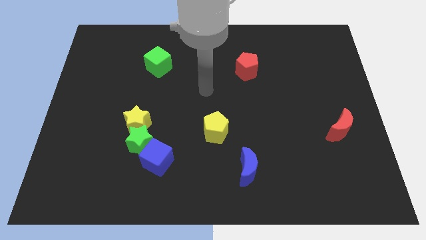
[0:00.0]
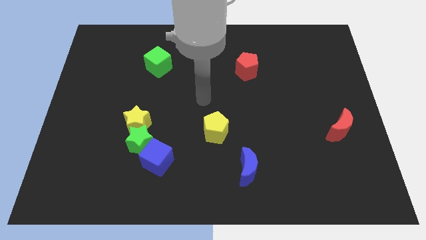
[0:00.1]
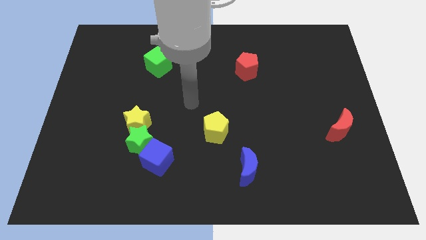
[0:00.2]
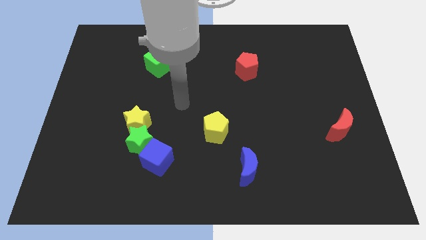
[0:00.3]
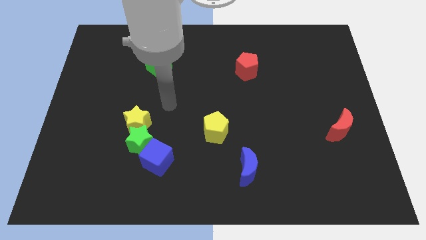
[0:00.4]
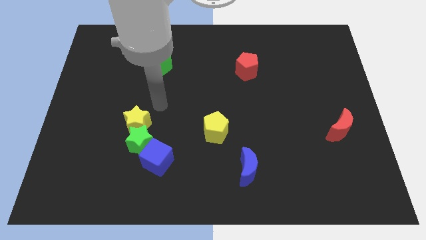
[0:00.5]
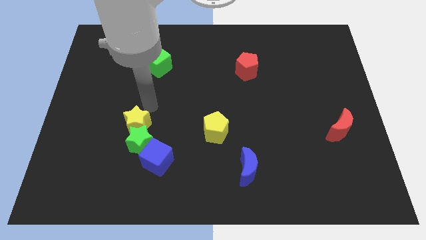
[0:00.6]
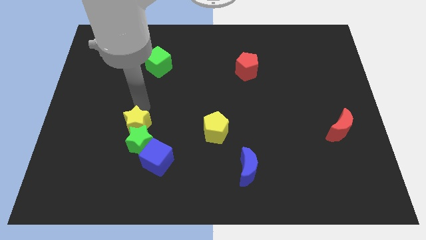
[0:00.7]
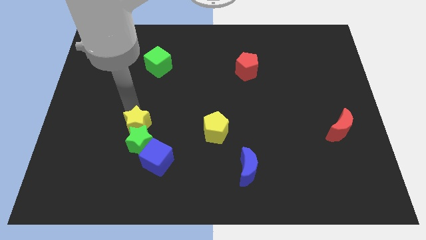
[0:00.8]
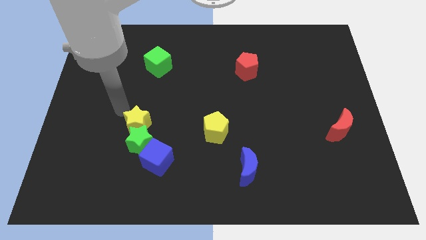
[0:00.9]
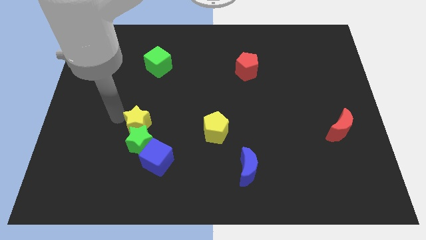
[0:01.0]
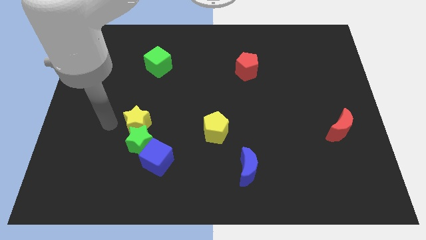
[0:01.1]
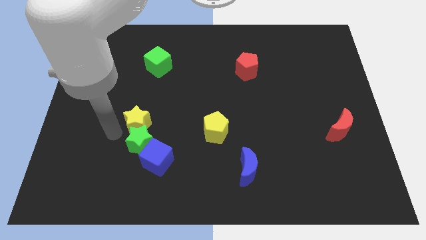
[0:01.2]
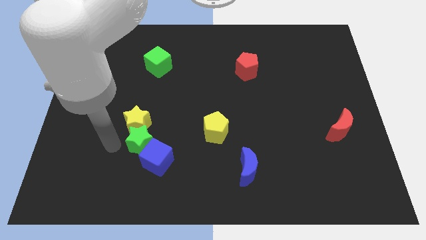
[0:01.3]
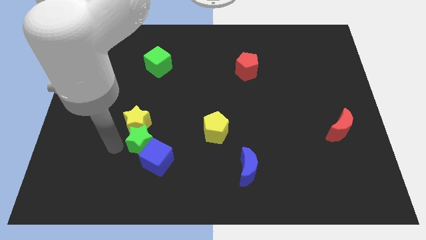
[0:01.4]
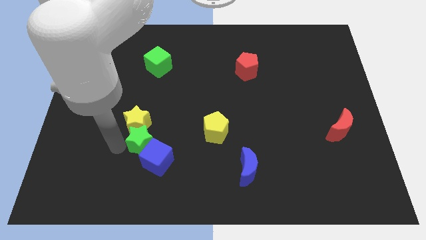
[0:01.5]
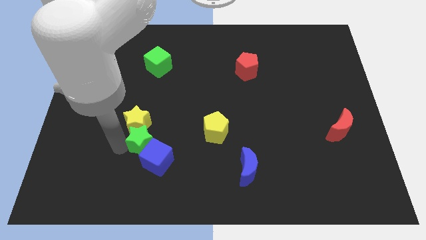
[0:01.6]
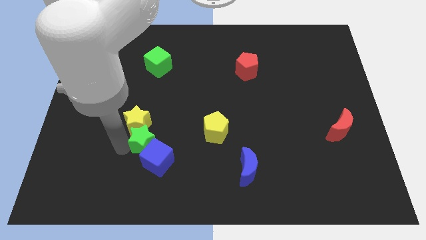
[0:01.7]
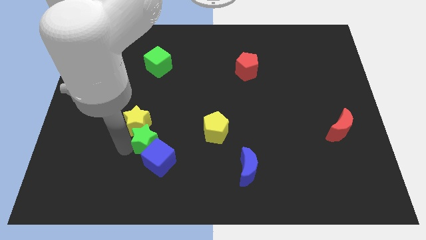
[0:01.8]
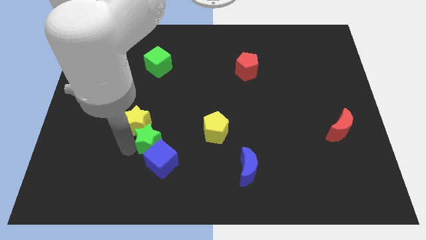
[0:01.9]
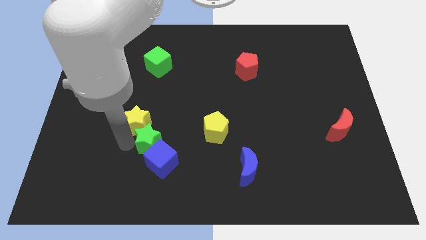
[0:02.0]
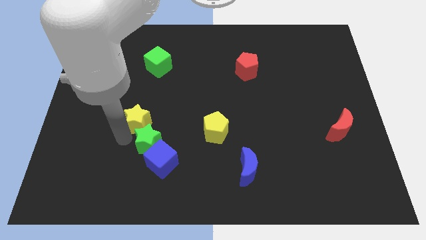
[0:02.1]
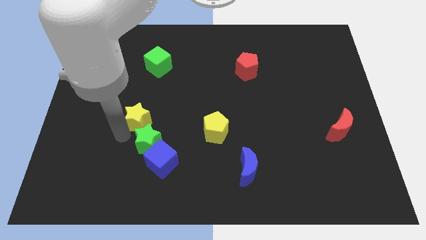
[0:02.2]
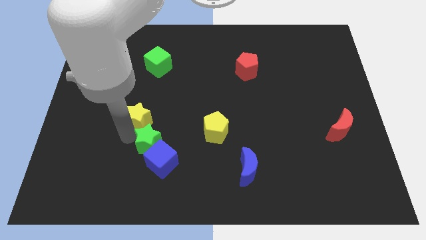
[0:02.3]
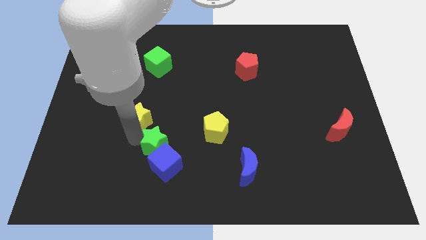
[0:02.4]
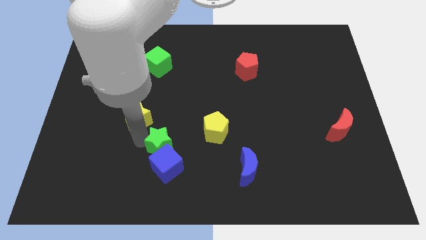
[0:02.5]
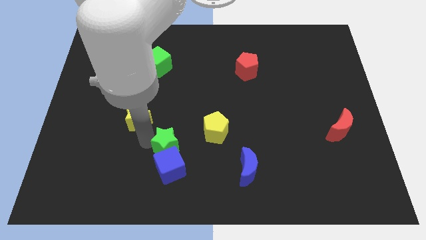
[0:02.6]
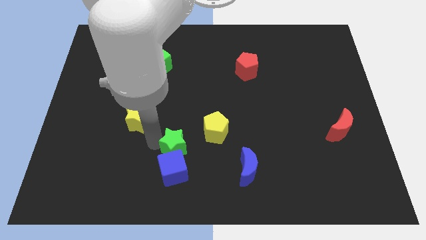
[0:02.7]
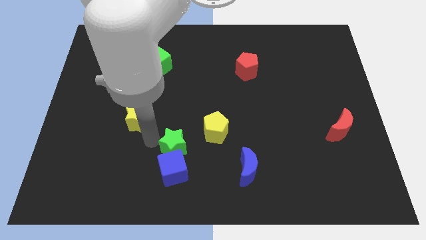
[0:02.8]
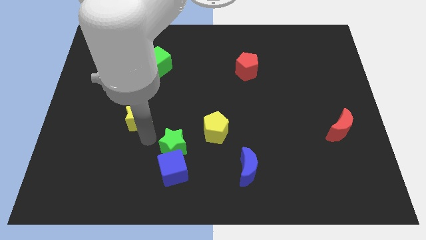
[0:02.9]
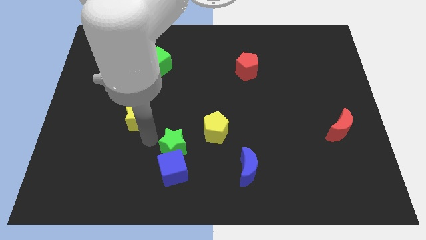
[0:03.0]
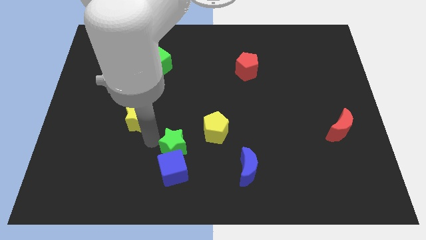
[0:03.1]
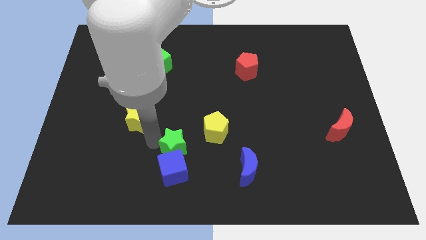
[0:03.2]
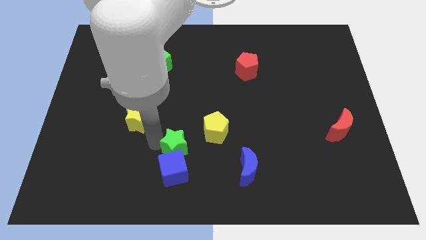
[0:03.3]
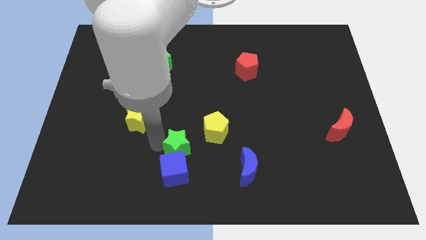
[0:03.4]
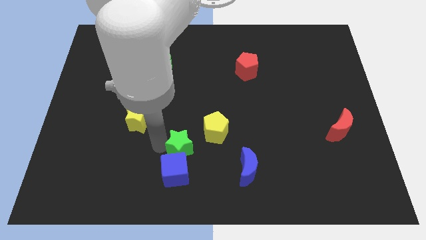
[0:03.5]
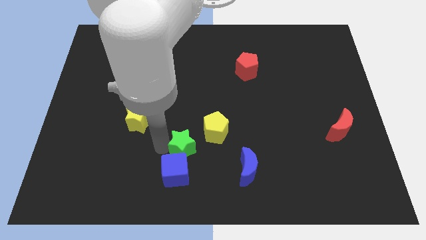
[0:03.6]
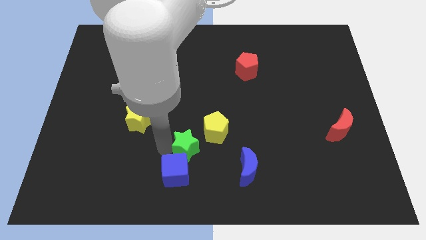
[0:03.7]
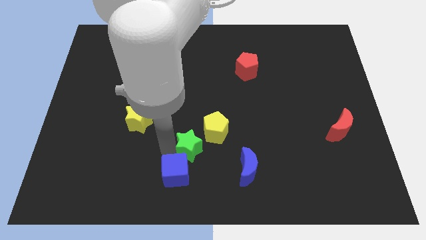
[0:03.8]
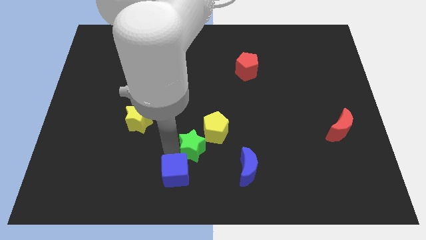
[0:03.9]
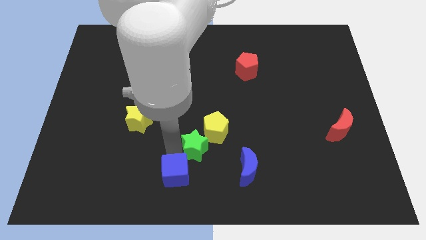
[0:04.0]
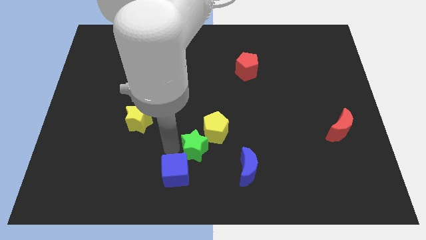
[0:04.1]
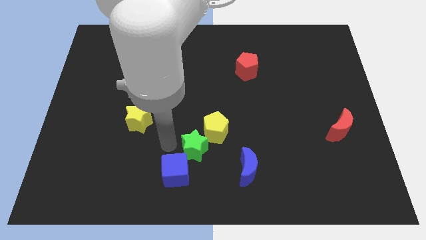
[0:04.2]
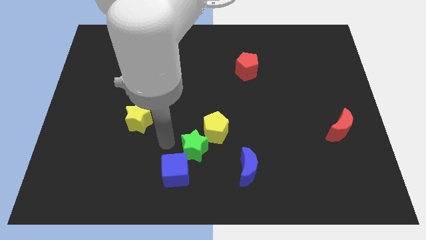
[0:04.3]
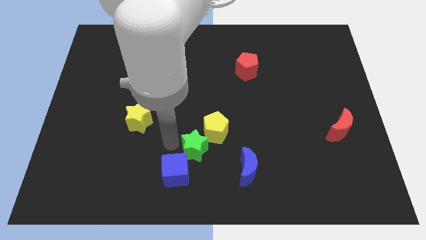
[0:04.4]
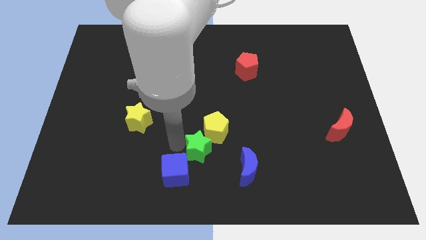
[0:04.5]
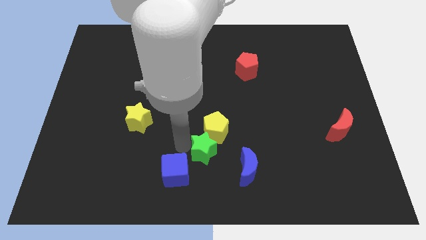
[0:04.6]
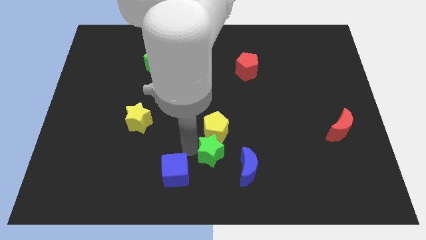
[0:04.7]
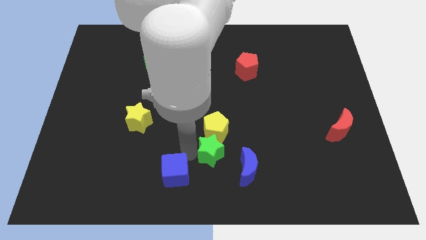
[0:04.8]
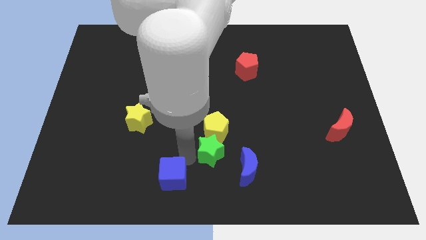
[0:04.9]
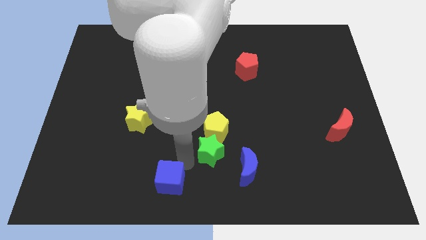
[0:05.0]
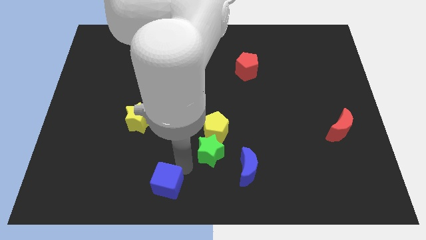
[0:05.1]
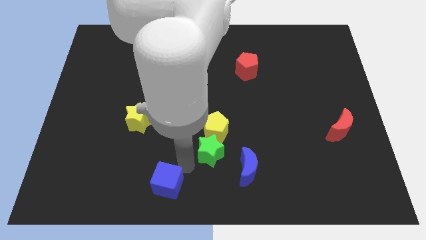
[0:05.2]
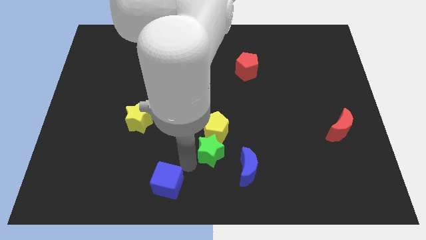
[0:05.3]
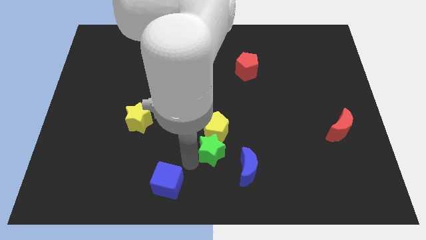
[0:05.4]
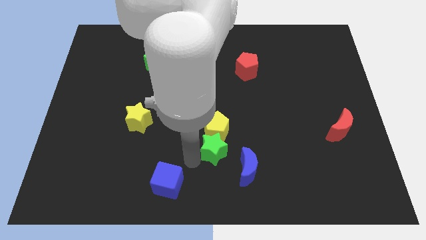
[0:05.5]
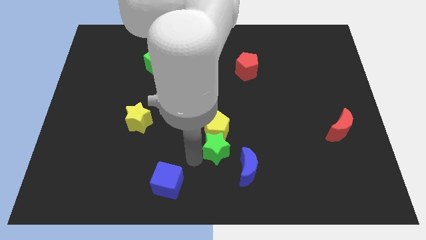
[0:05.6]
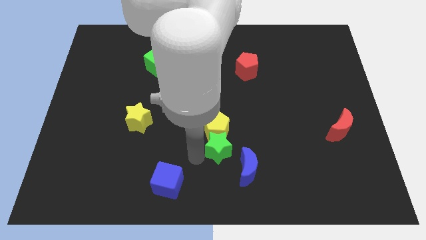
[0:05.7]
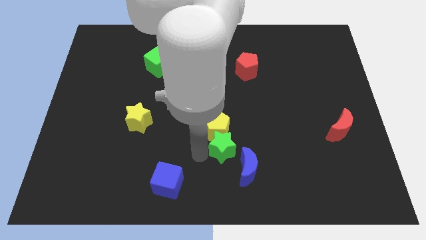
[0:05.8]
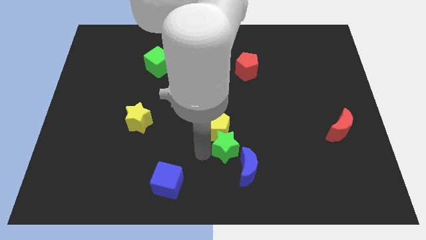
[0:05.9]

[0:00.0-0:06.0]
push the green star to the top of the blue moon
